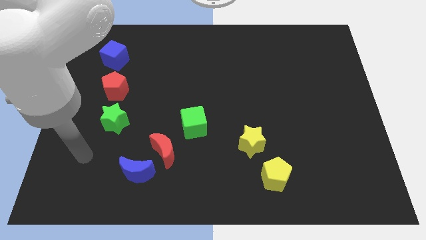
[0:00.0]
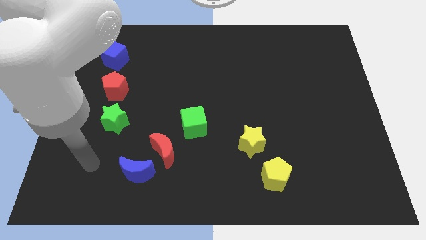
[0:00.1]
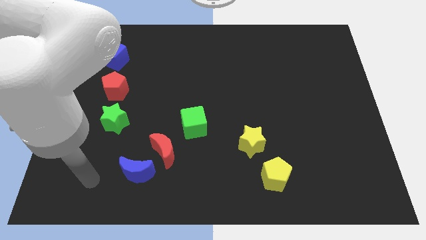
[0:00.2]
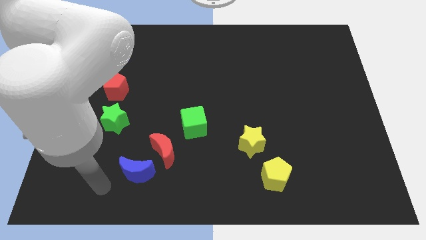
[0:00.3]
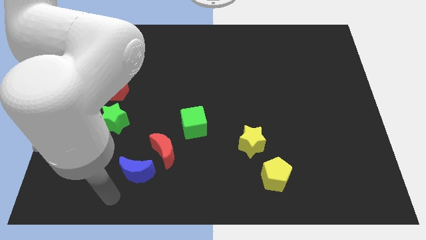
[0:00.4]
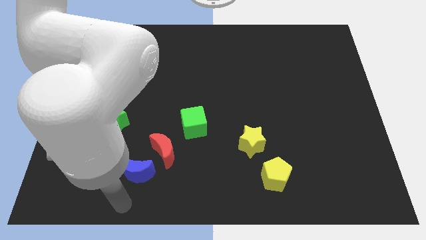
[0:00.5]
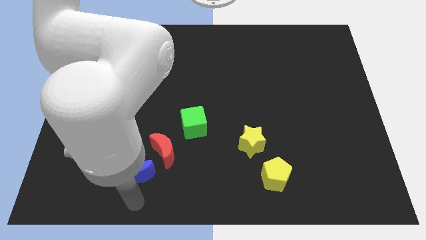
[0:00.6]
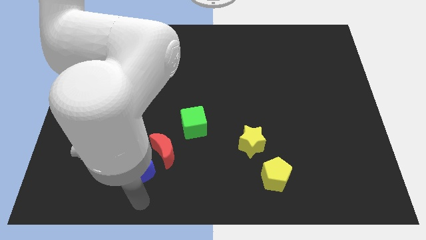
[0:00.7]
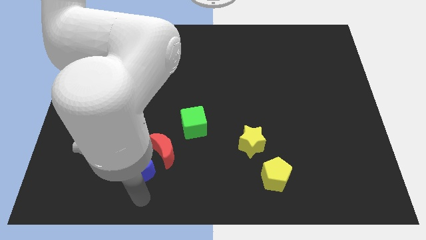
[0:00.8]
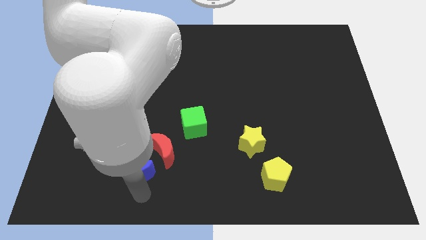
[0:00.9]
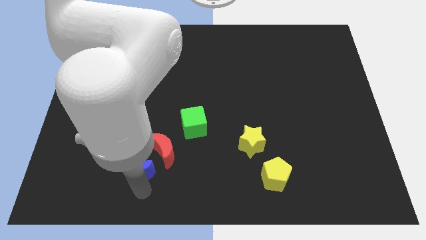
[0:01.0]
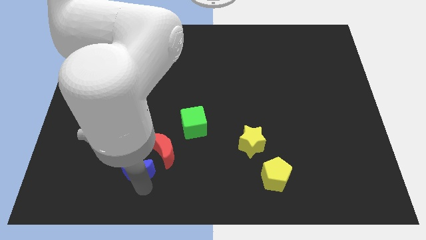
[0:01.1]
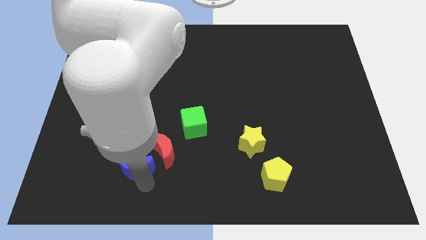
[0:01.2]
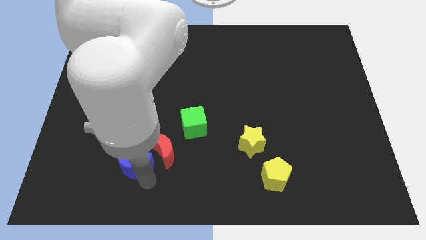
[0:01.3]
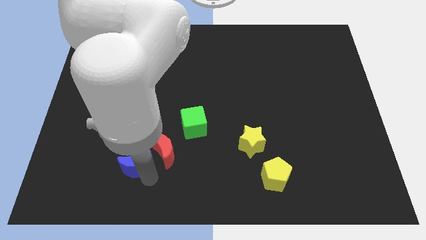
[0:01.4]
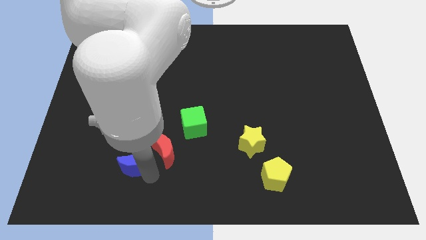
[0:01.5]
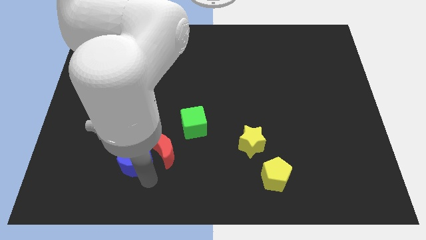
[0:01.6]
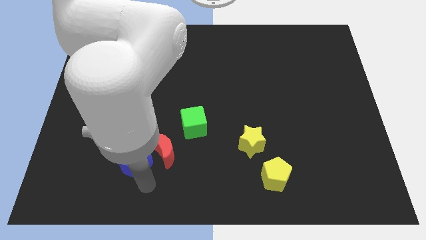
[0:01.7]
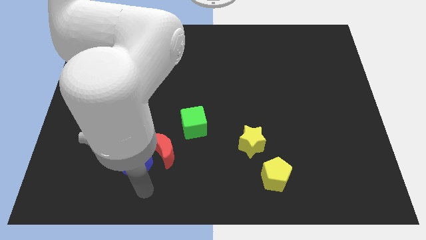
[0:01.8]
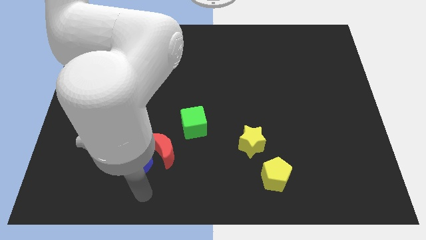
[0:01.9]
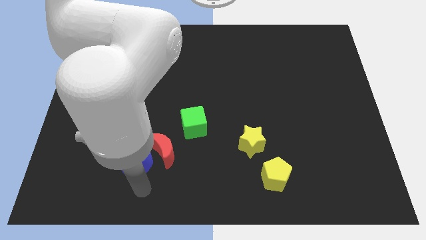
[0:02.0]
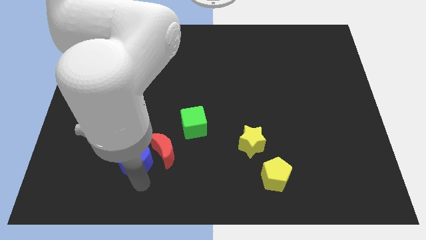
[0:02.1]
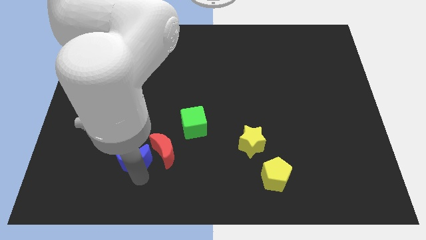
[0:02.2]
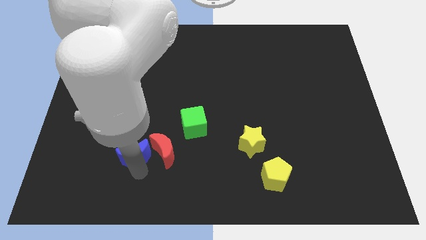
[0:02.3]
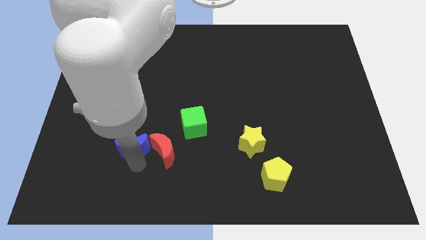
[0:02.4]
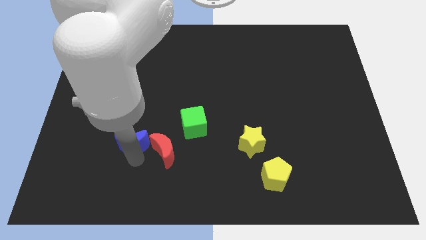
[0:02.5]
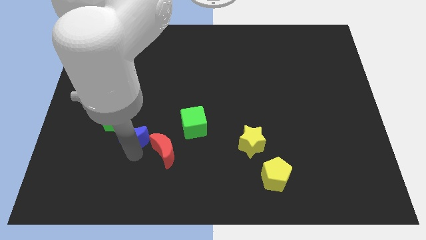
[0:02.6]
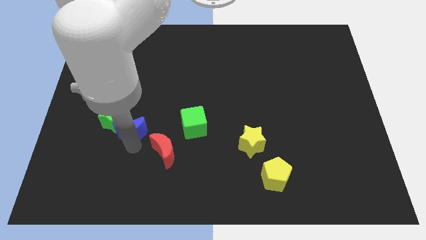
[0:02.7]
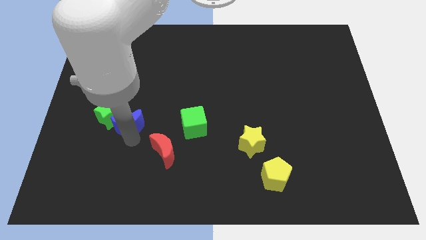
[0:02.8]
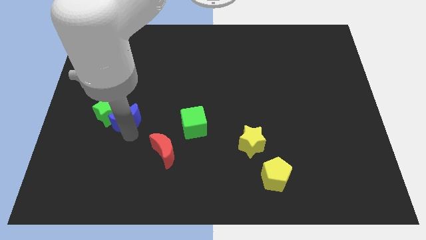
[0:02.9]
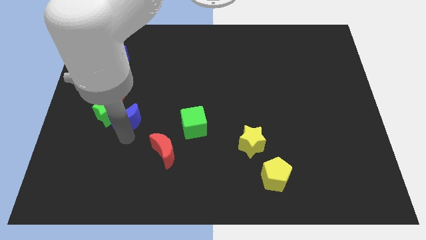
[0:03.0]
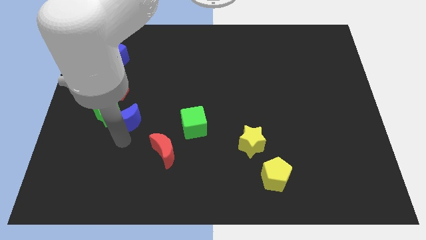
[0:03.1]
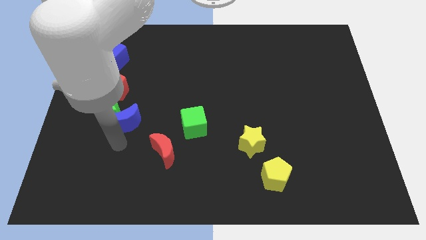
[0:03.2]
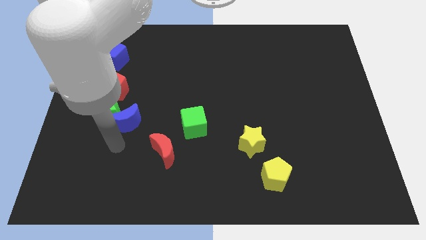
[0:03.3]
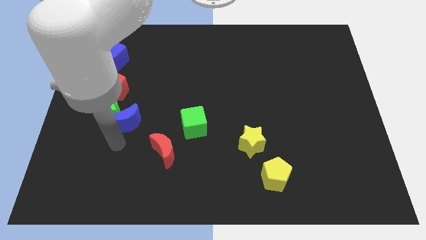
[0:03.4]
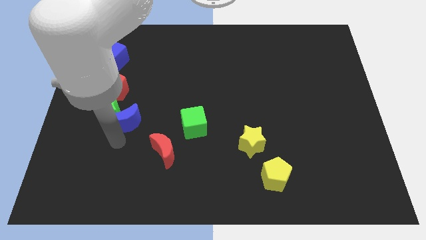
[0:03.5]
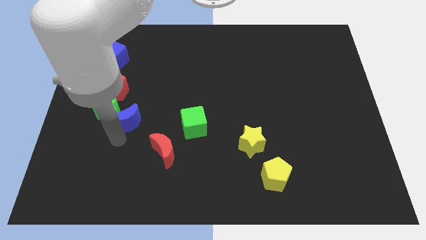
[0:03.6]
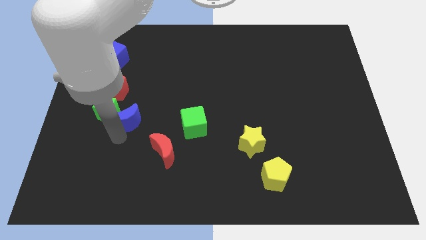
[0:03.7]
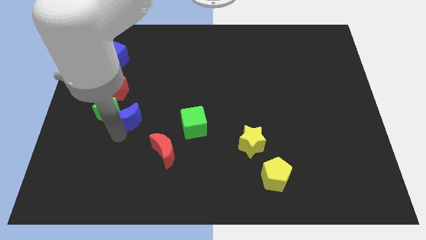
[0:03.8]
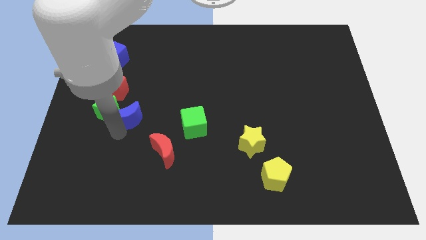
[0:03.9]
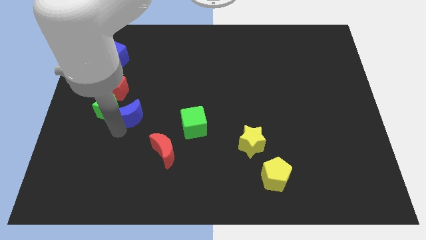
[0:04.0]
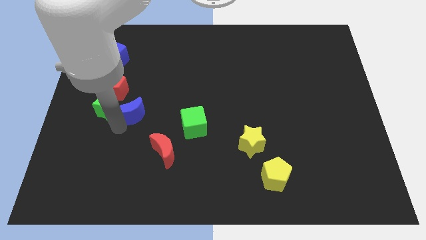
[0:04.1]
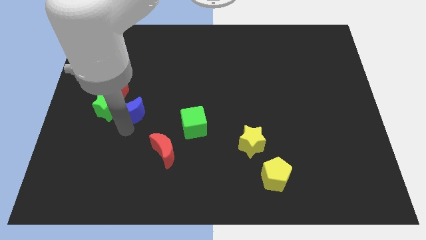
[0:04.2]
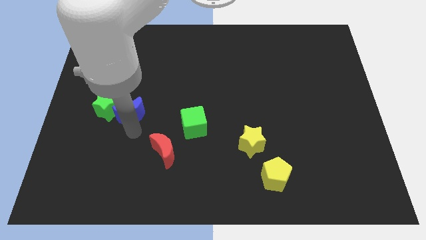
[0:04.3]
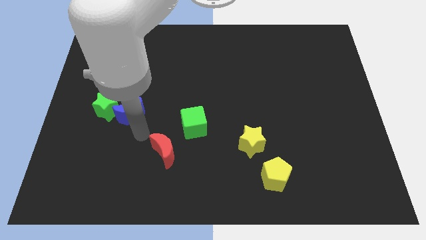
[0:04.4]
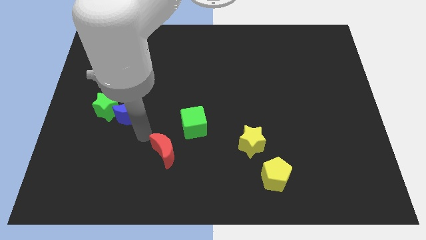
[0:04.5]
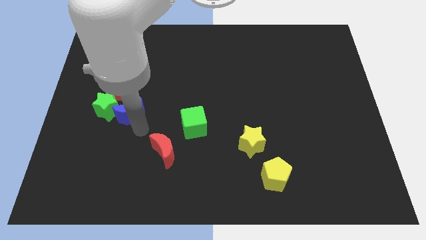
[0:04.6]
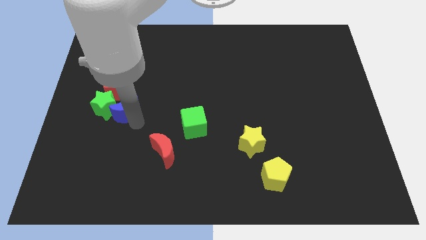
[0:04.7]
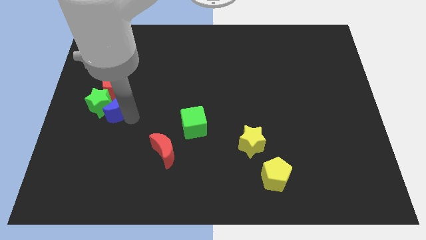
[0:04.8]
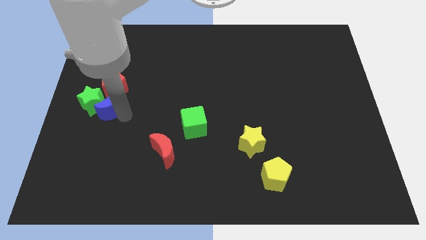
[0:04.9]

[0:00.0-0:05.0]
move the blue moon towards the red pentagon

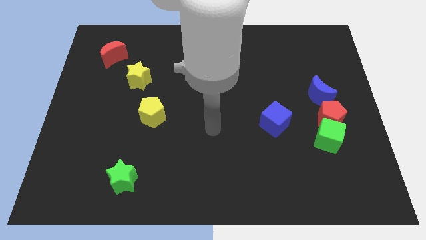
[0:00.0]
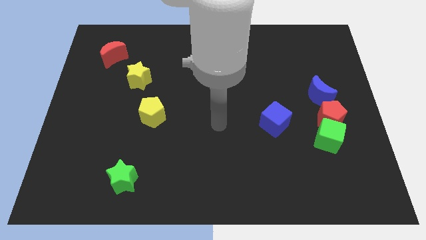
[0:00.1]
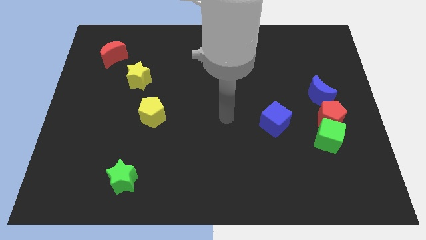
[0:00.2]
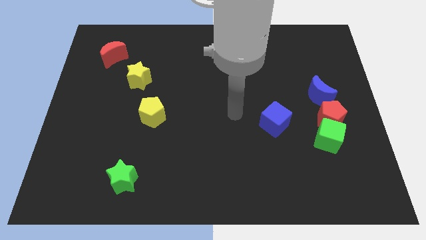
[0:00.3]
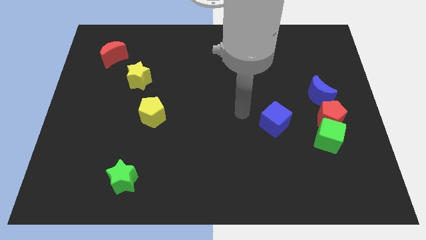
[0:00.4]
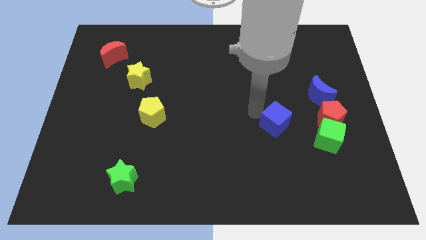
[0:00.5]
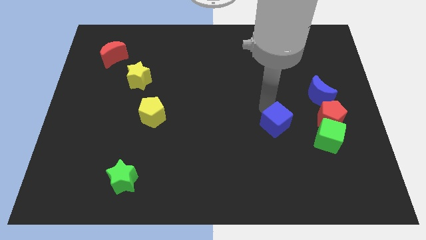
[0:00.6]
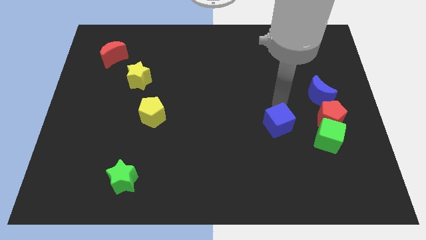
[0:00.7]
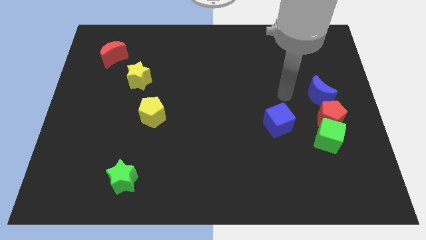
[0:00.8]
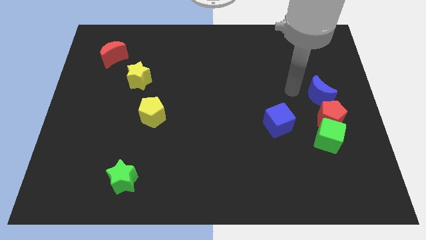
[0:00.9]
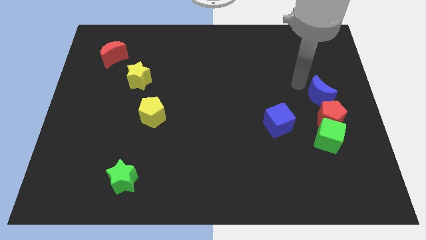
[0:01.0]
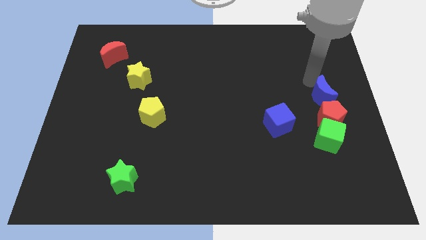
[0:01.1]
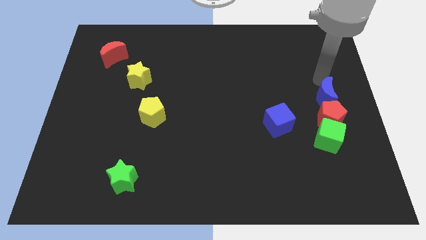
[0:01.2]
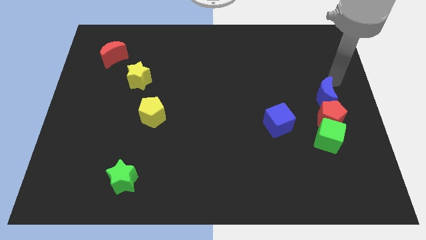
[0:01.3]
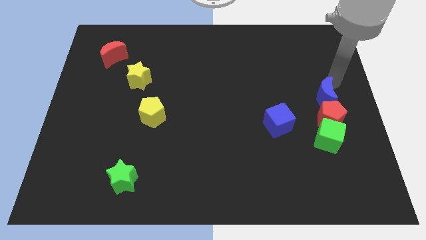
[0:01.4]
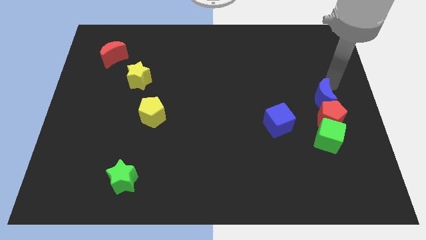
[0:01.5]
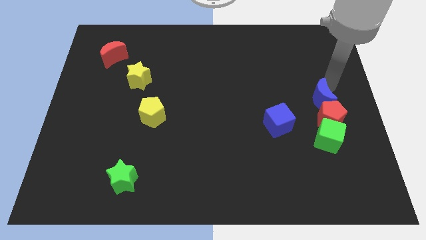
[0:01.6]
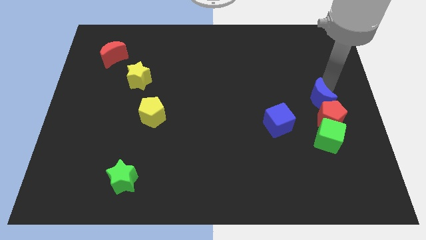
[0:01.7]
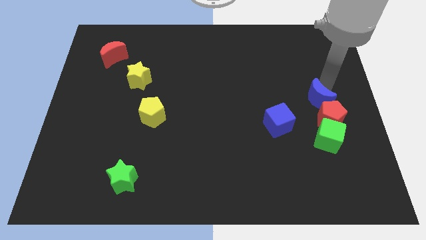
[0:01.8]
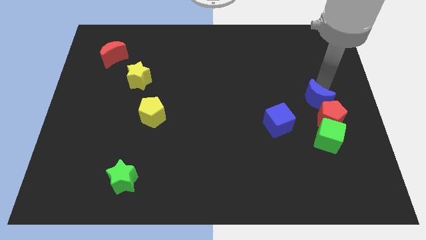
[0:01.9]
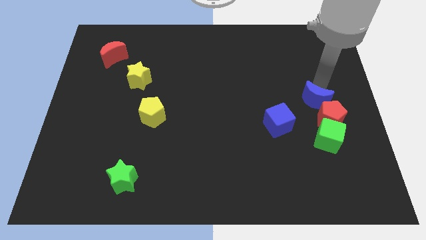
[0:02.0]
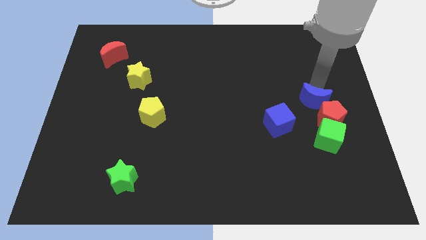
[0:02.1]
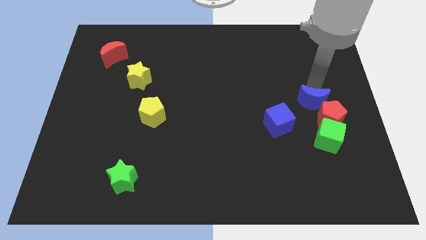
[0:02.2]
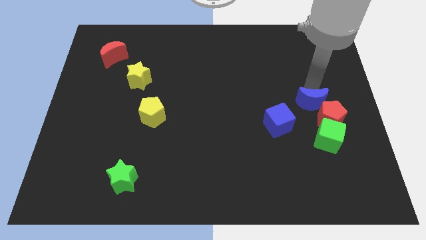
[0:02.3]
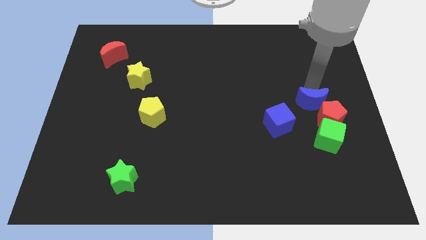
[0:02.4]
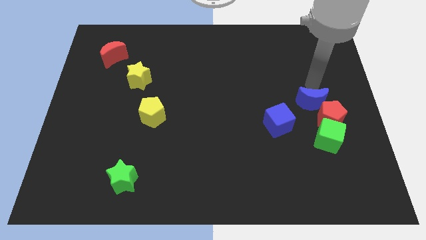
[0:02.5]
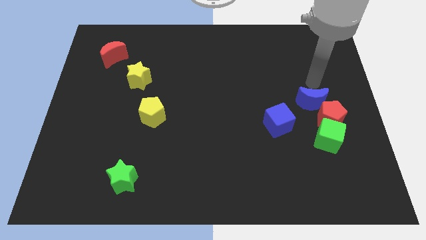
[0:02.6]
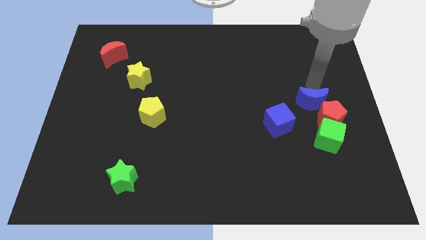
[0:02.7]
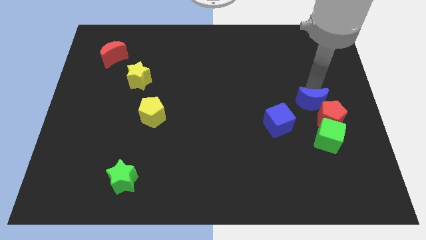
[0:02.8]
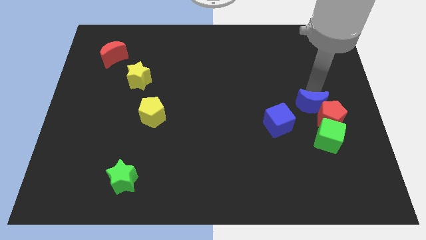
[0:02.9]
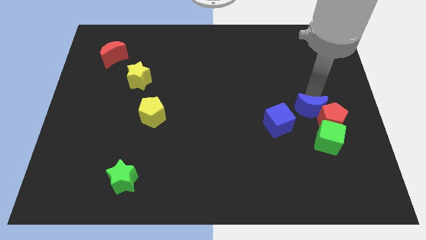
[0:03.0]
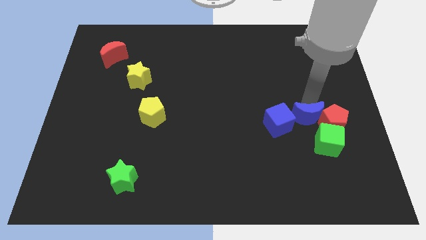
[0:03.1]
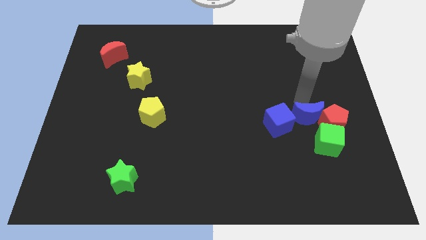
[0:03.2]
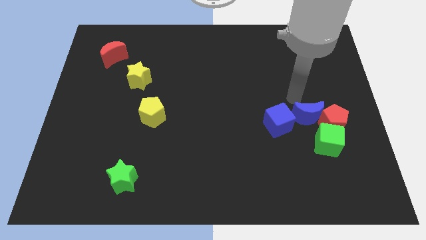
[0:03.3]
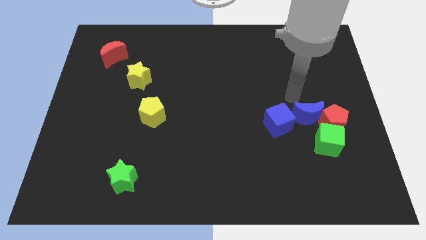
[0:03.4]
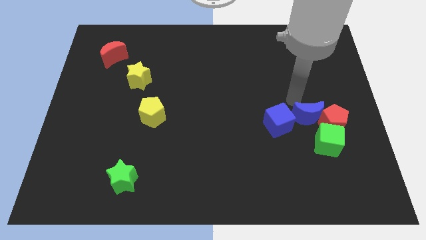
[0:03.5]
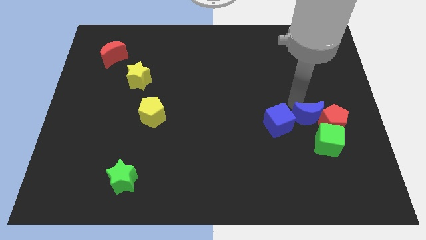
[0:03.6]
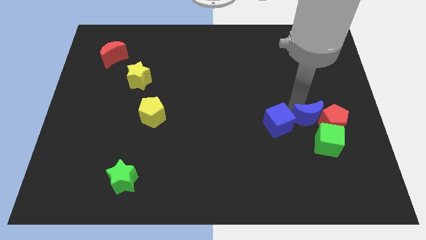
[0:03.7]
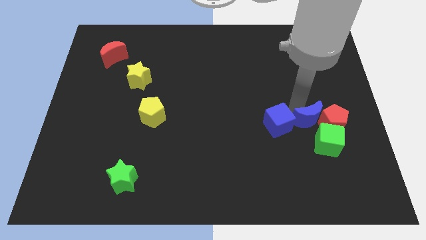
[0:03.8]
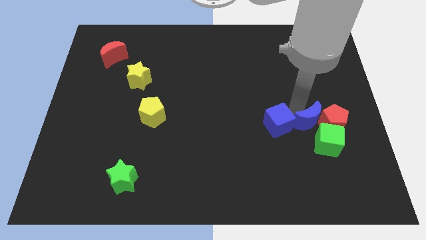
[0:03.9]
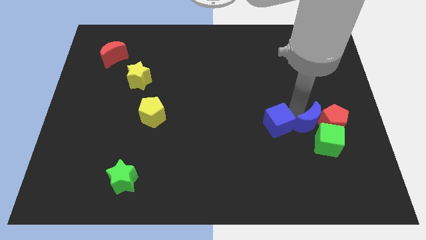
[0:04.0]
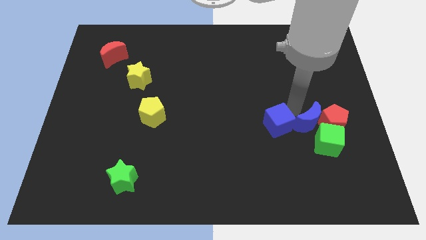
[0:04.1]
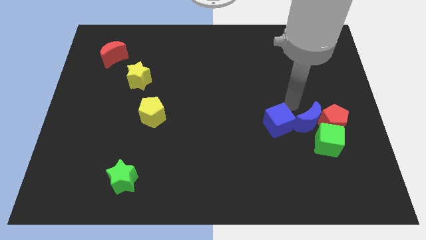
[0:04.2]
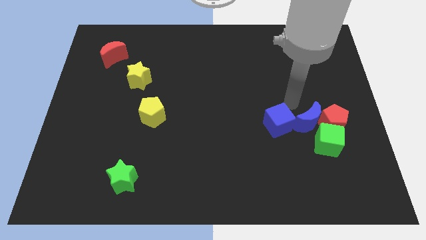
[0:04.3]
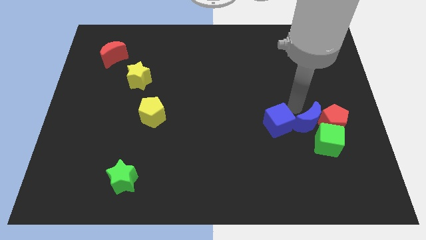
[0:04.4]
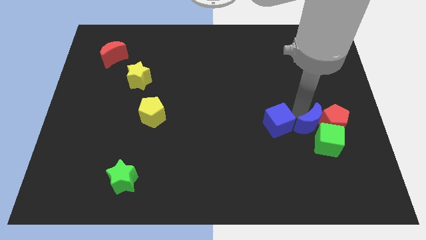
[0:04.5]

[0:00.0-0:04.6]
put the blue moon close to the green cube
